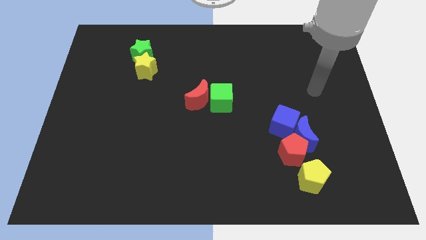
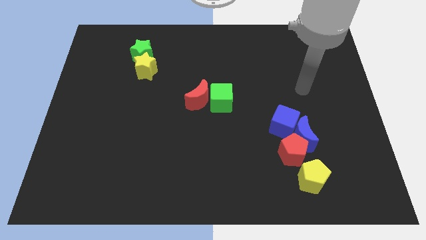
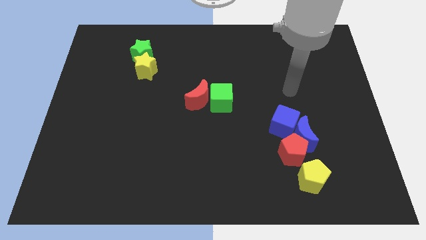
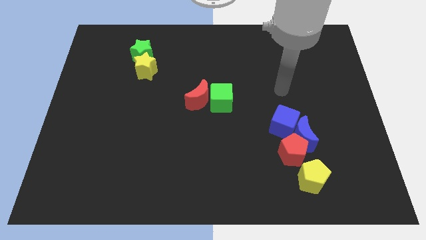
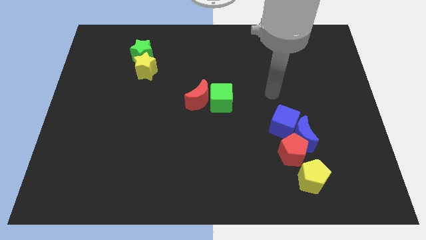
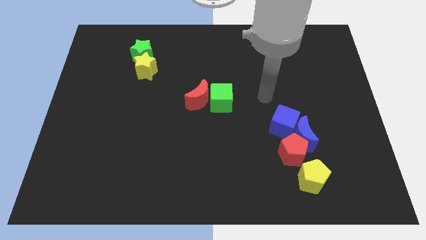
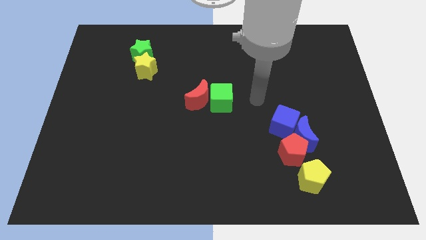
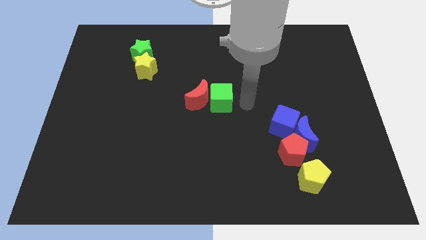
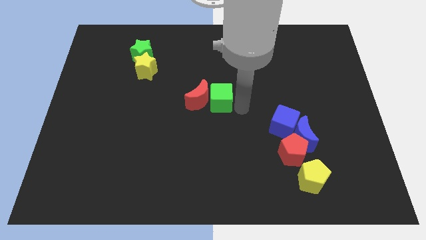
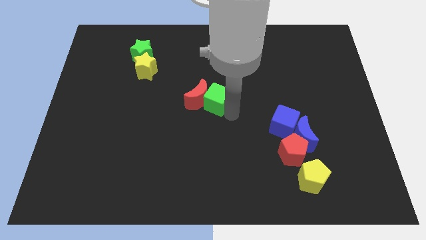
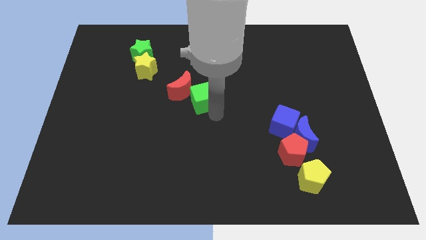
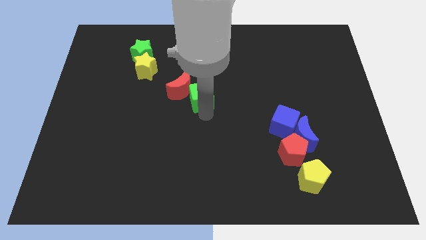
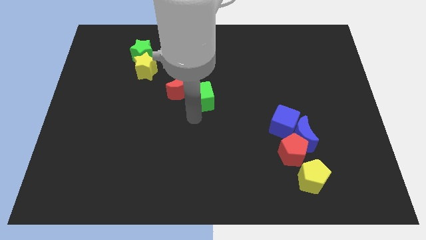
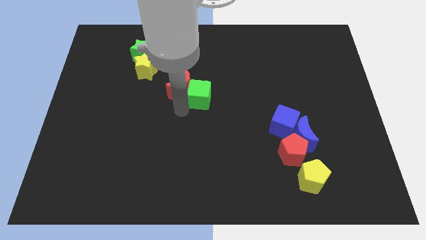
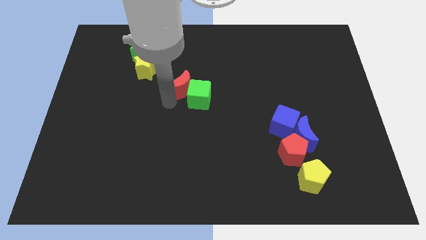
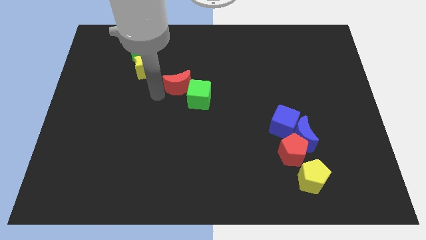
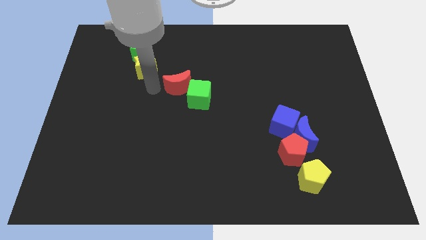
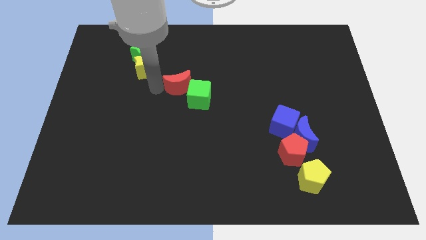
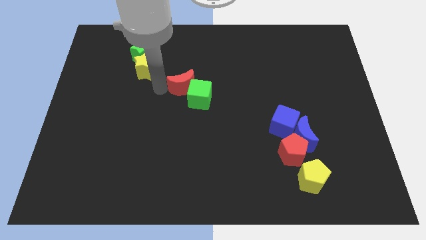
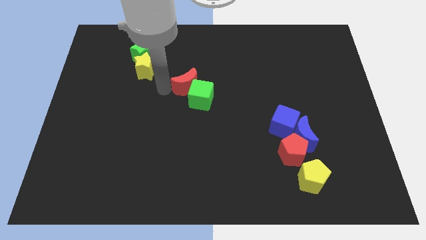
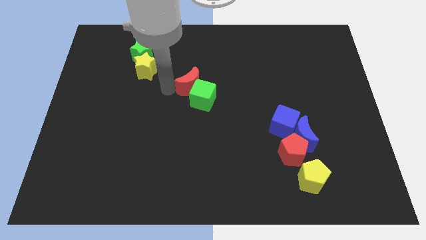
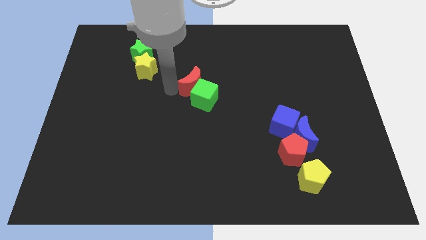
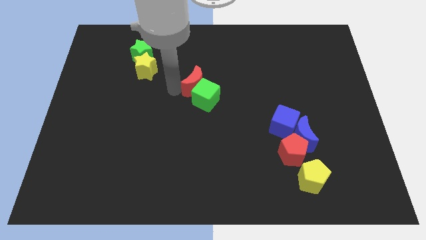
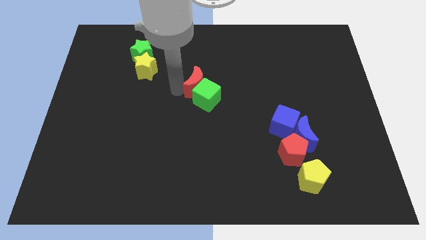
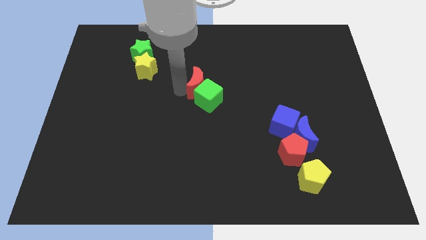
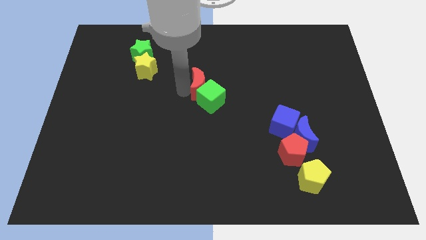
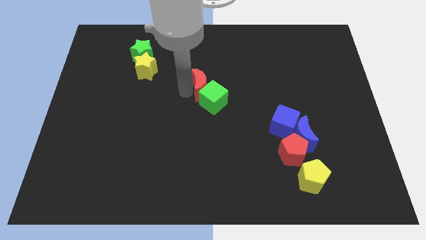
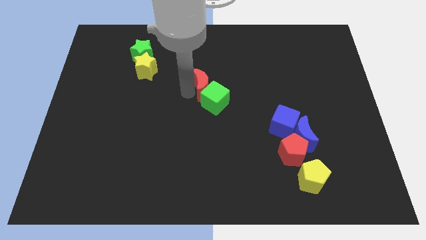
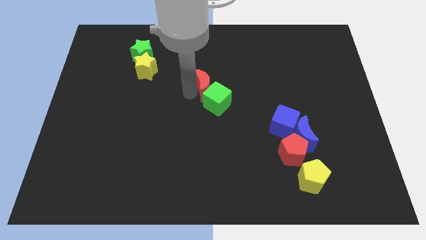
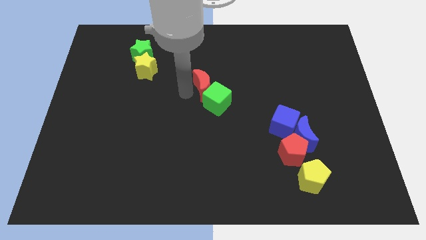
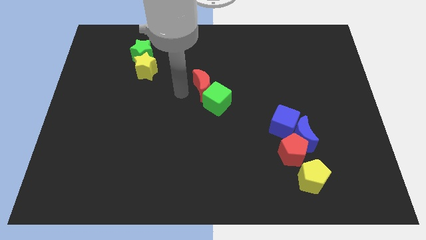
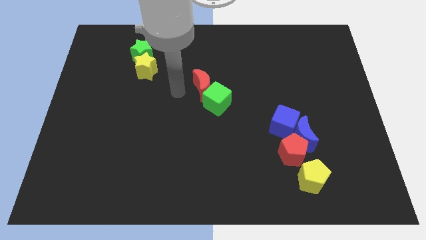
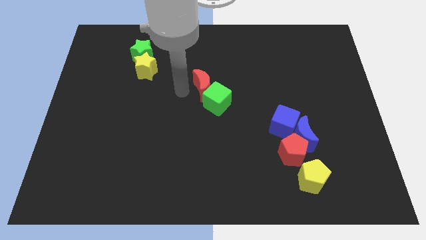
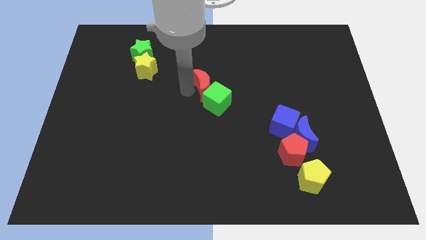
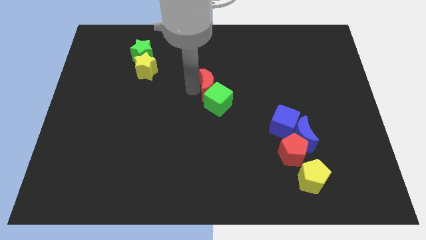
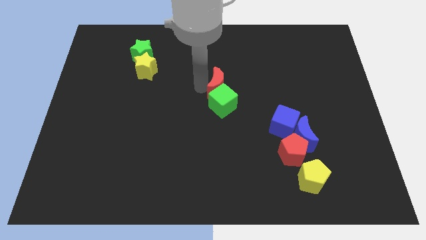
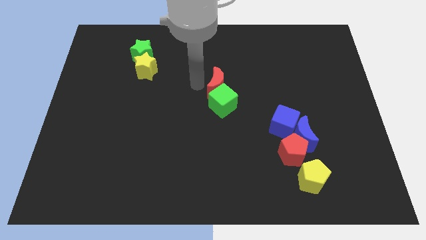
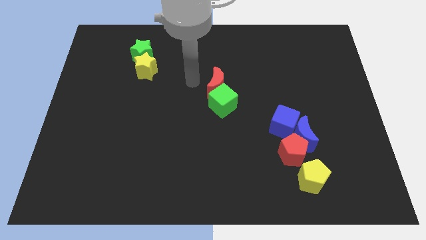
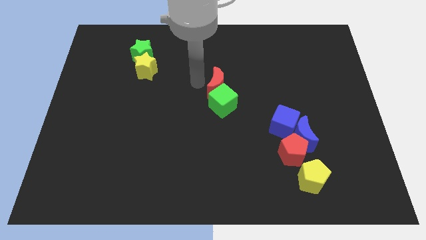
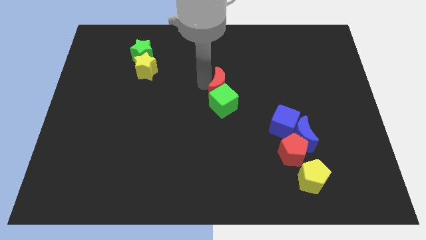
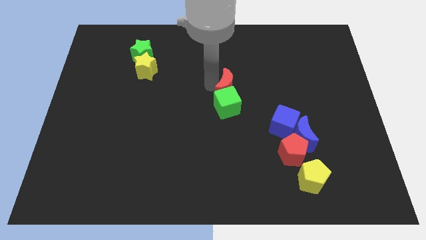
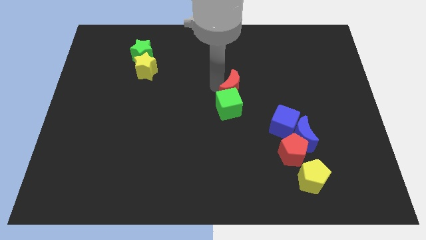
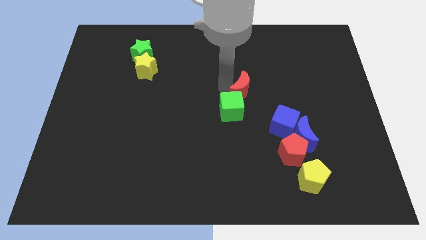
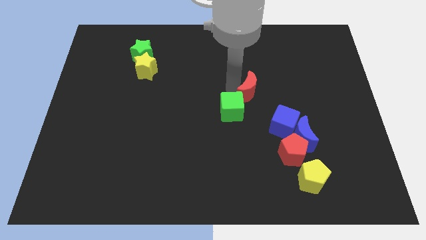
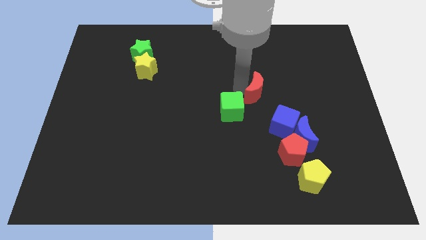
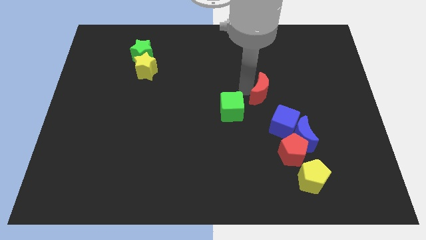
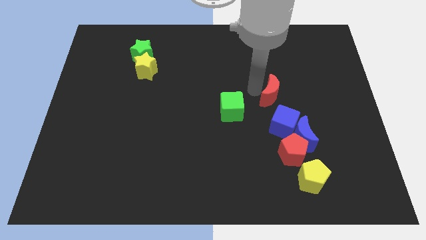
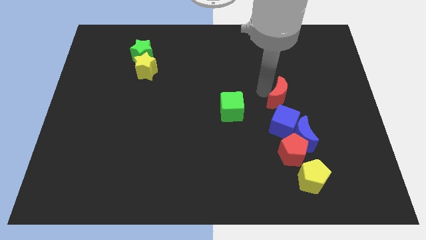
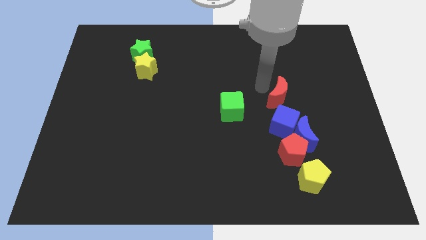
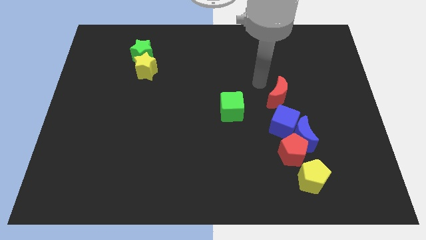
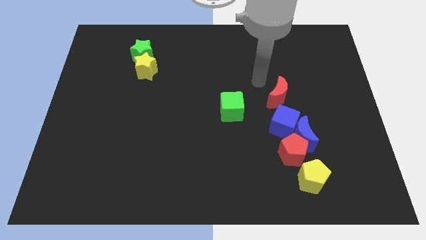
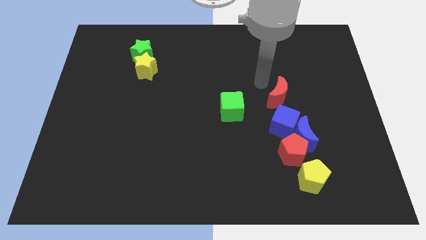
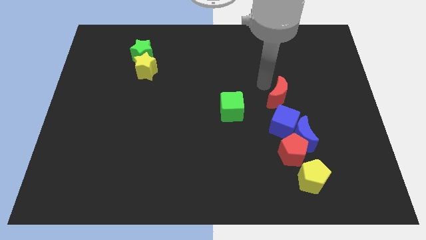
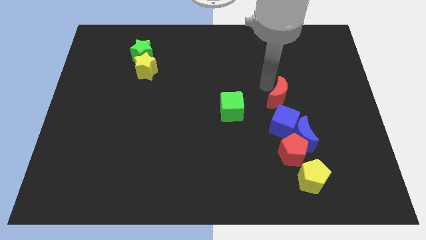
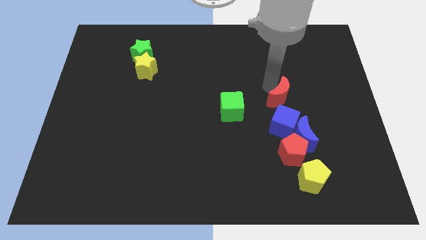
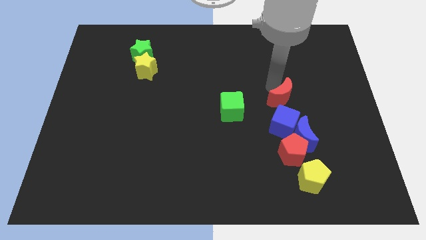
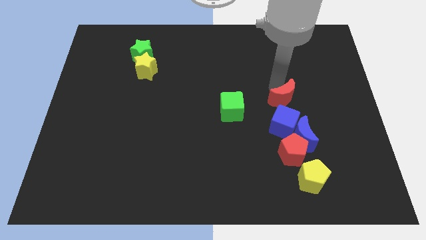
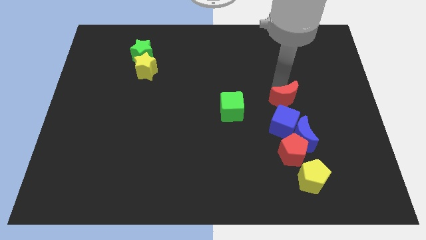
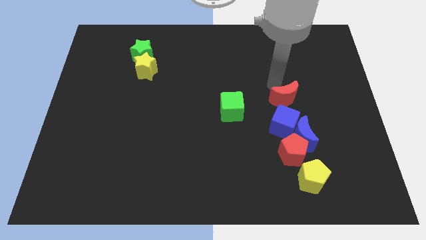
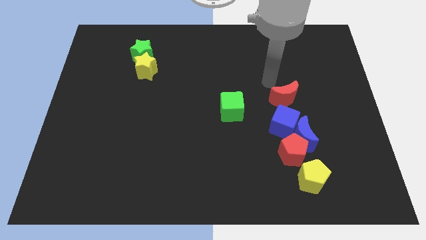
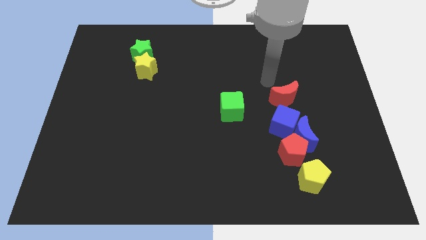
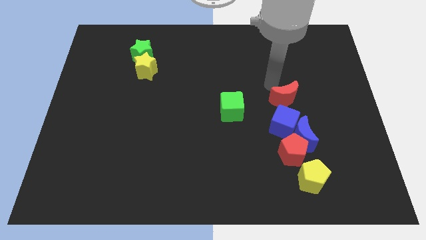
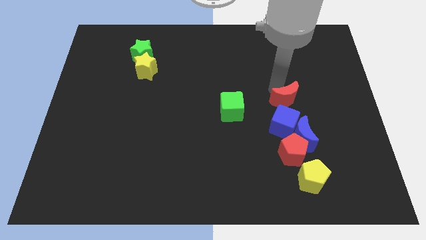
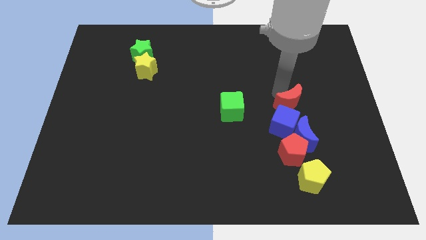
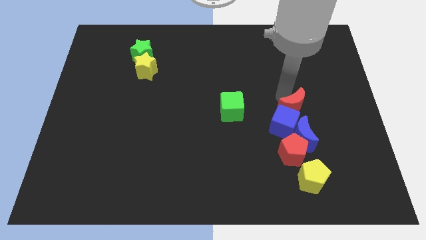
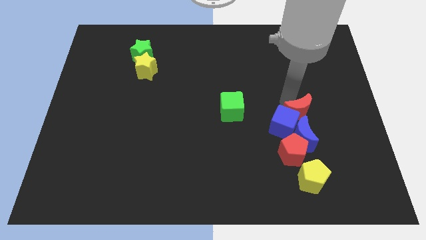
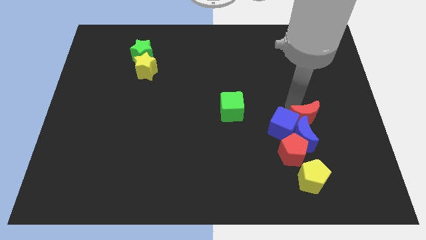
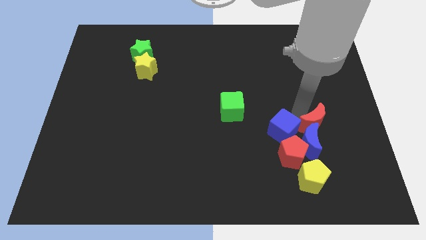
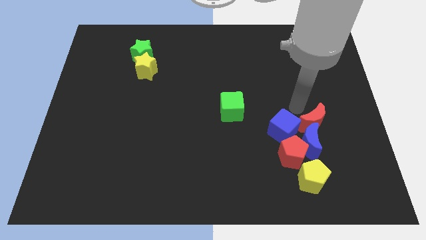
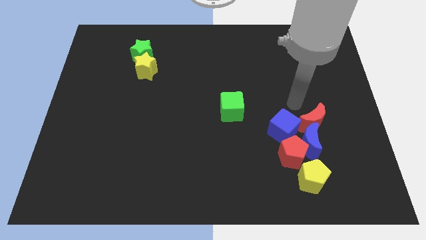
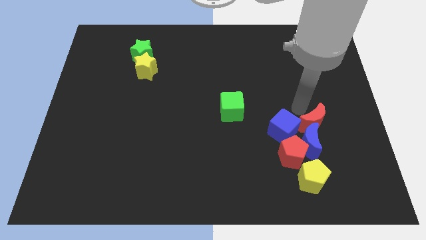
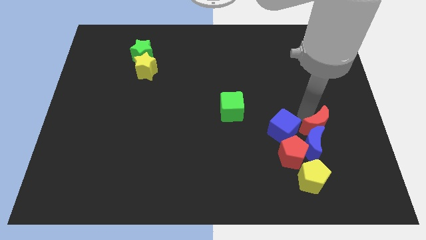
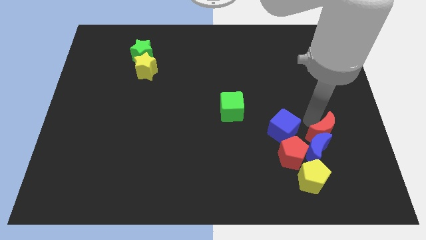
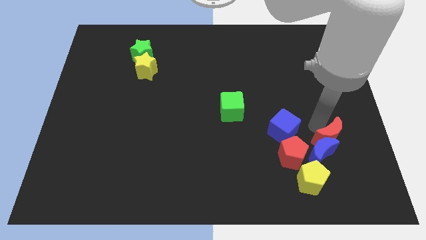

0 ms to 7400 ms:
push the red moon right of the red pentagon

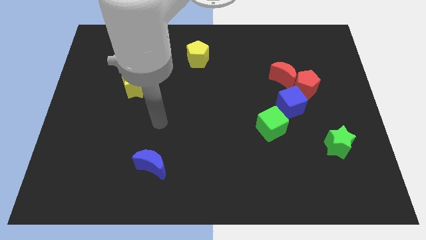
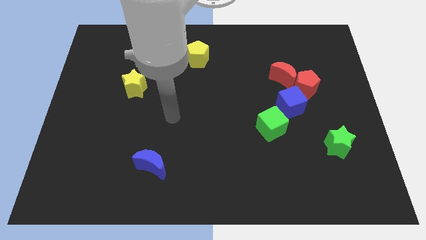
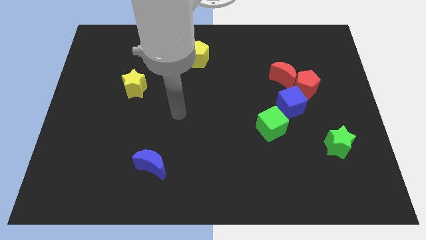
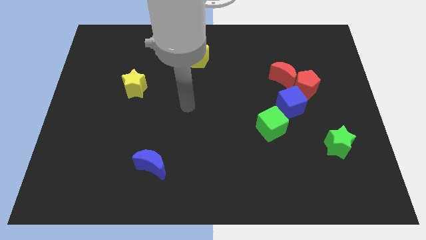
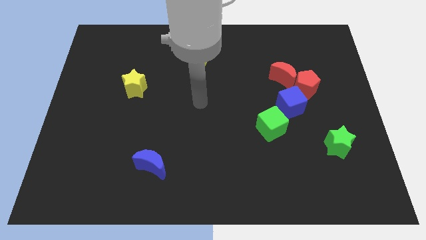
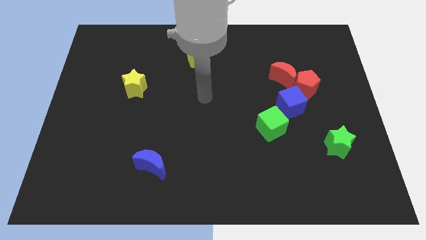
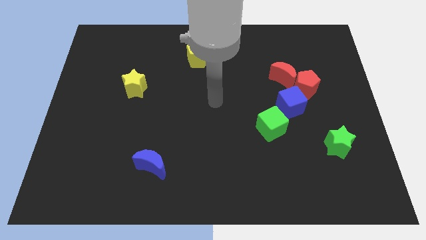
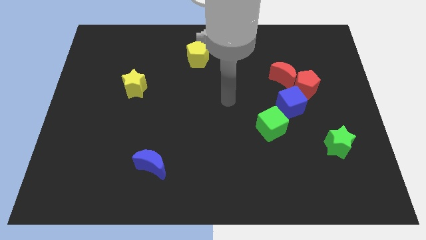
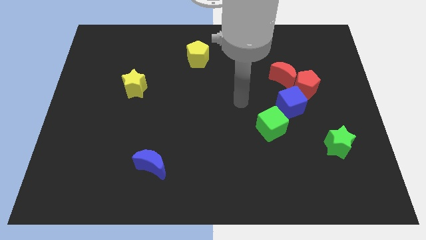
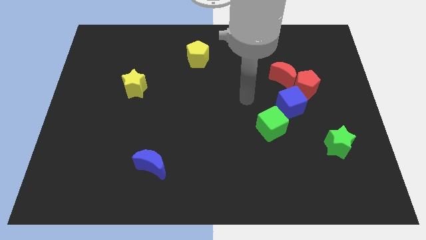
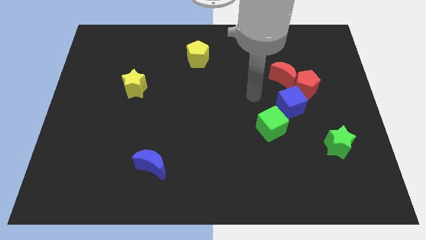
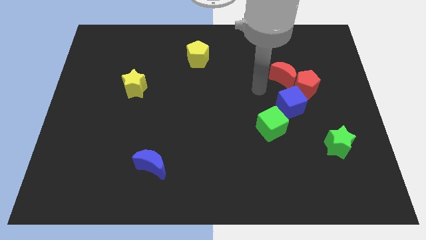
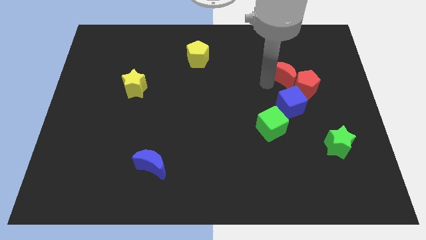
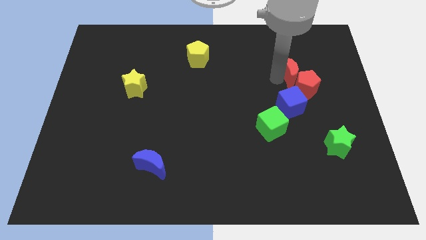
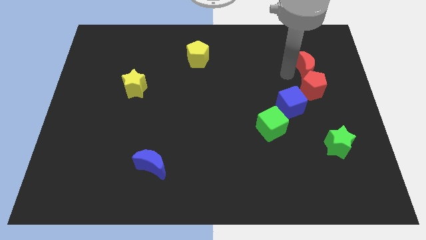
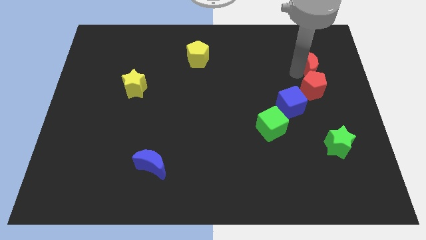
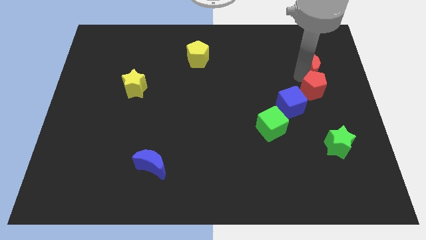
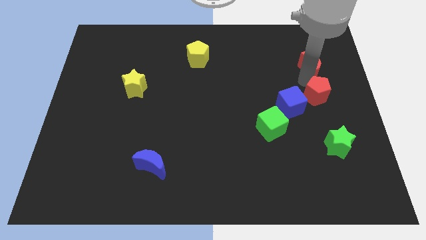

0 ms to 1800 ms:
put the red pentagon to the top of the green star
